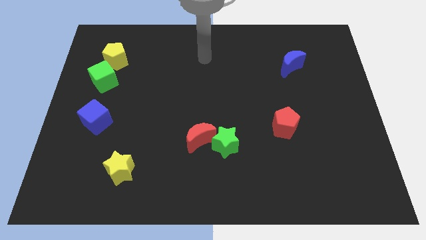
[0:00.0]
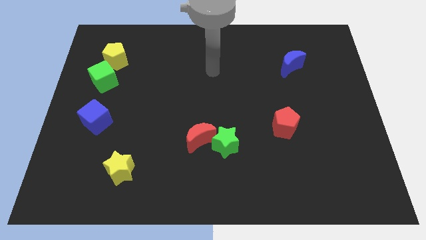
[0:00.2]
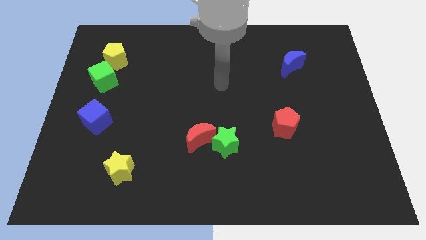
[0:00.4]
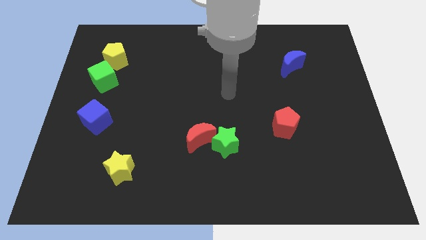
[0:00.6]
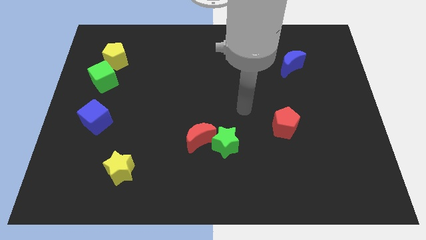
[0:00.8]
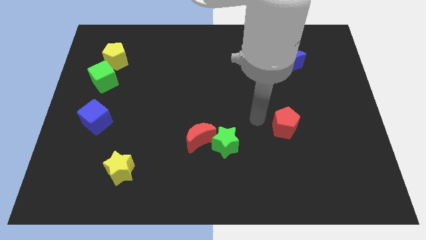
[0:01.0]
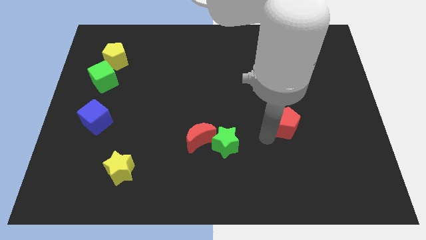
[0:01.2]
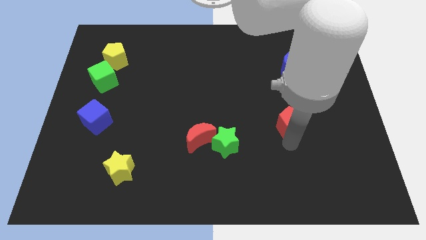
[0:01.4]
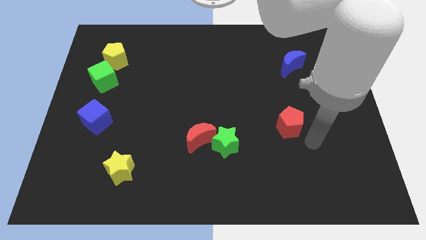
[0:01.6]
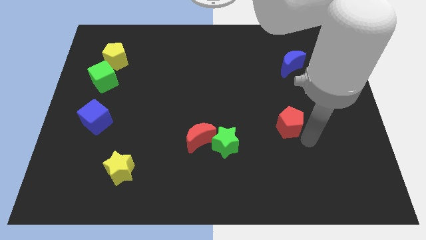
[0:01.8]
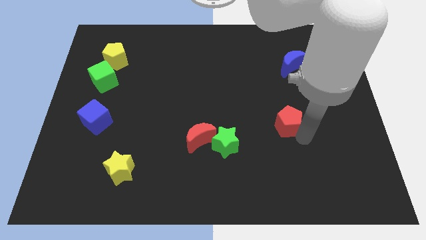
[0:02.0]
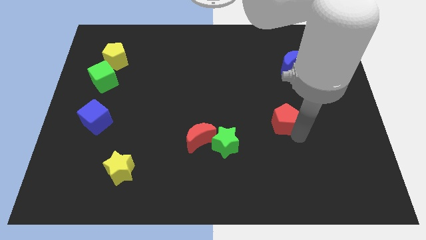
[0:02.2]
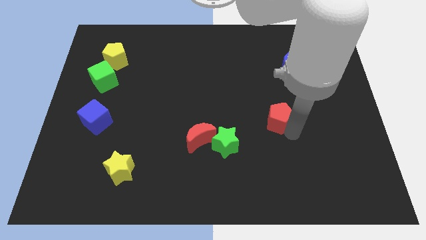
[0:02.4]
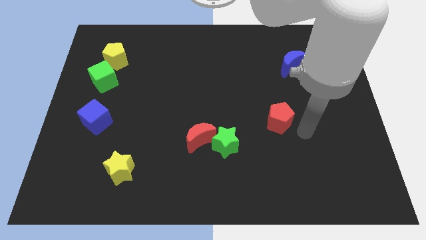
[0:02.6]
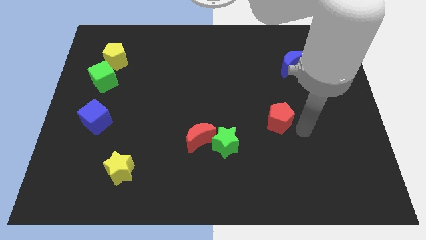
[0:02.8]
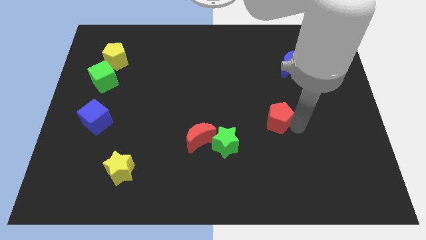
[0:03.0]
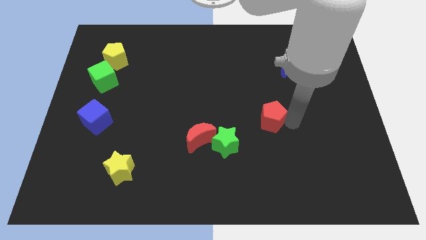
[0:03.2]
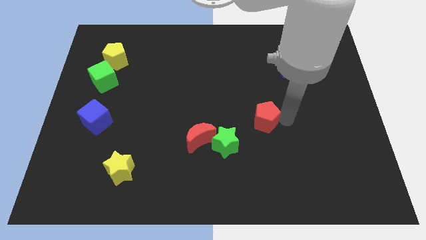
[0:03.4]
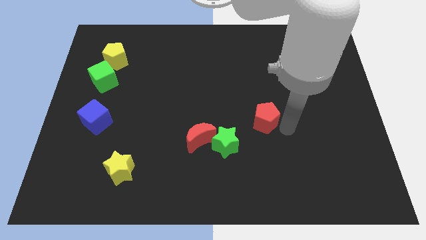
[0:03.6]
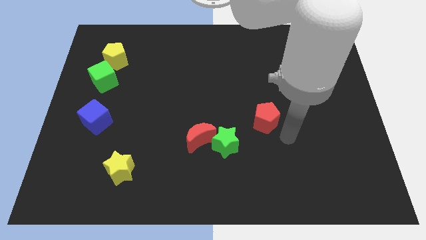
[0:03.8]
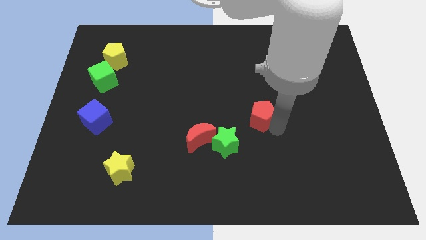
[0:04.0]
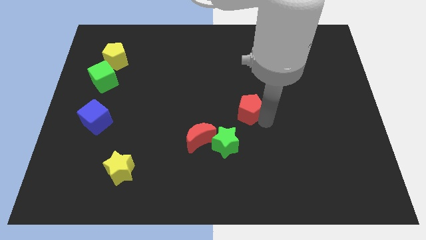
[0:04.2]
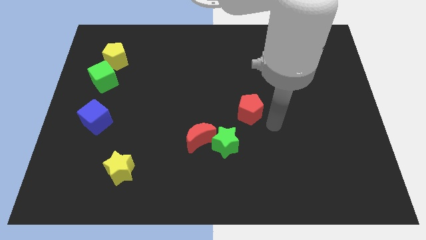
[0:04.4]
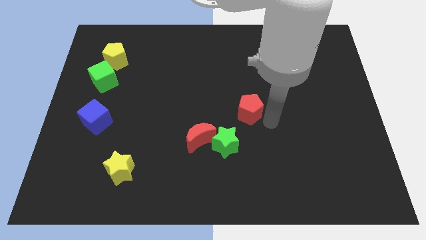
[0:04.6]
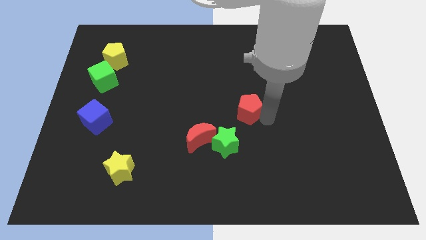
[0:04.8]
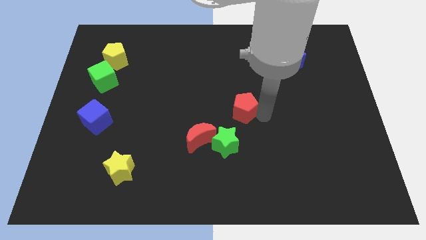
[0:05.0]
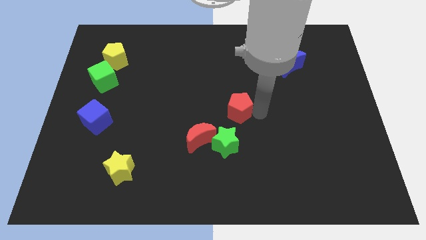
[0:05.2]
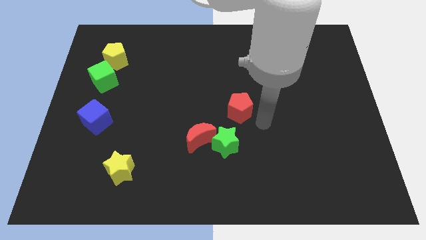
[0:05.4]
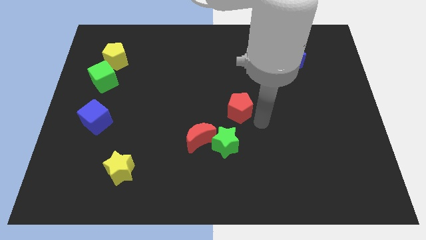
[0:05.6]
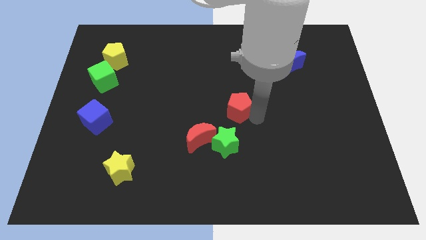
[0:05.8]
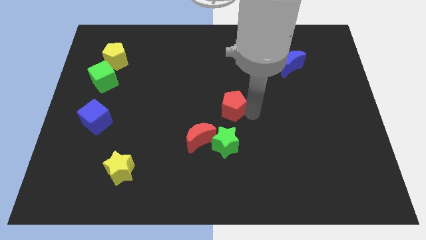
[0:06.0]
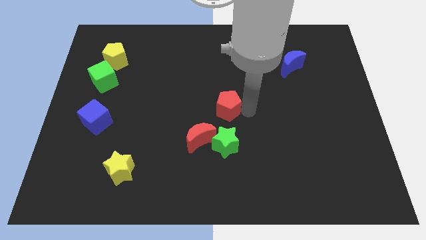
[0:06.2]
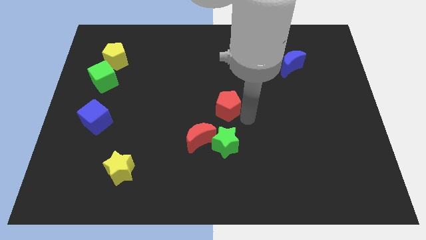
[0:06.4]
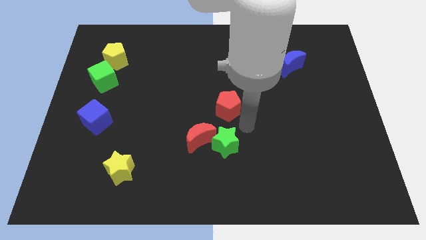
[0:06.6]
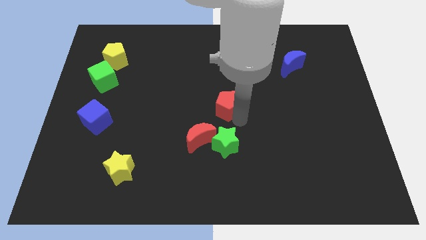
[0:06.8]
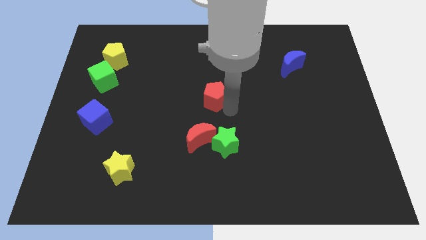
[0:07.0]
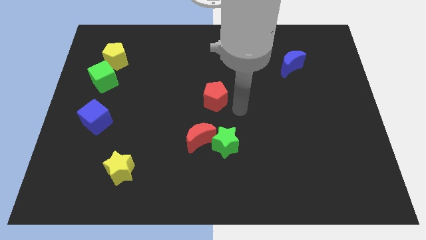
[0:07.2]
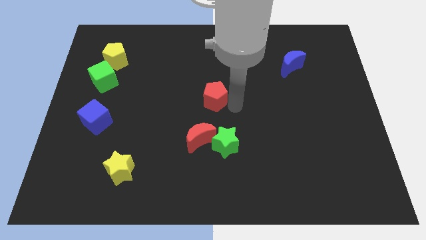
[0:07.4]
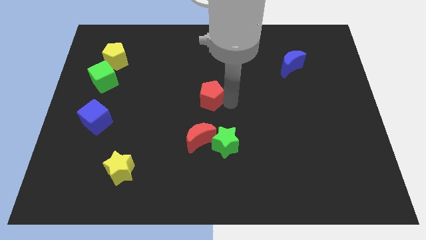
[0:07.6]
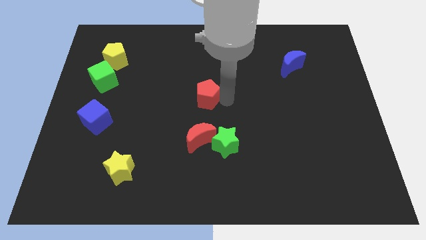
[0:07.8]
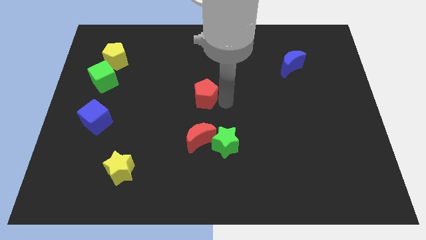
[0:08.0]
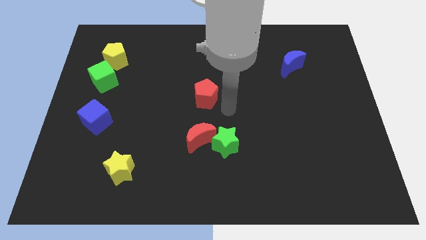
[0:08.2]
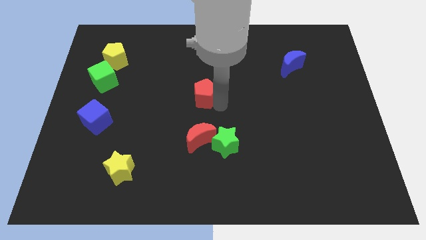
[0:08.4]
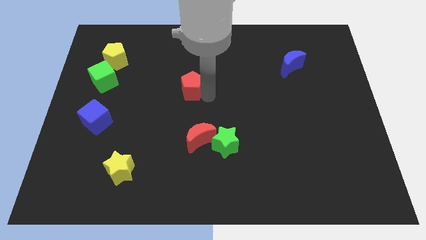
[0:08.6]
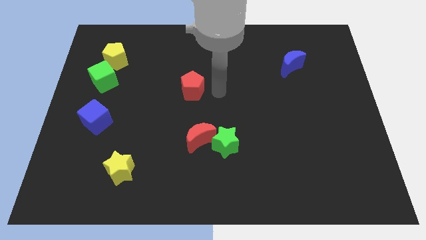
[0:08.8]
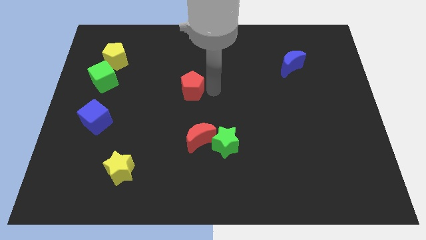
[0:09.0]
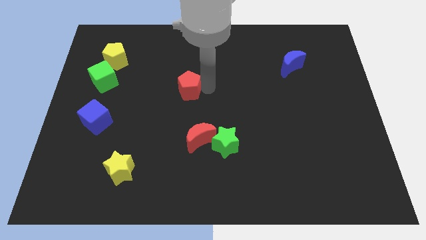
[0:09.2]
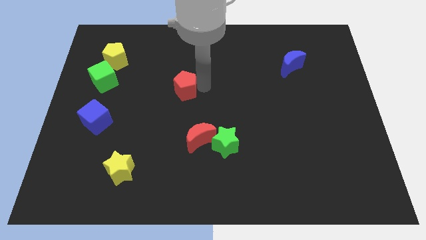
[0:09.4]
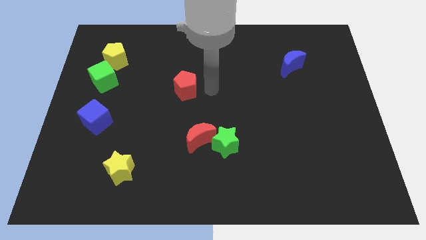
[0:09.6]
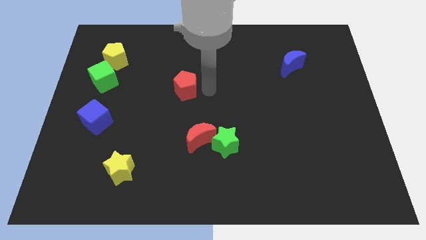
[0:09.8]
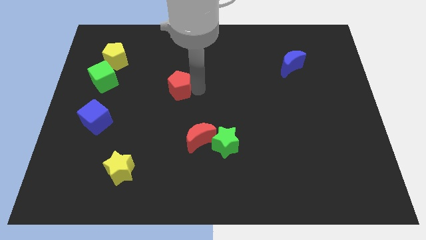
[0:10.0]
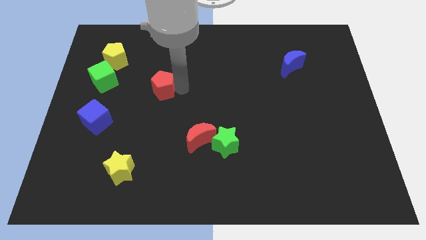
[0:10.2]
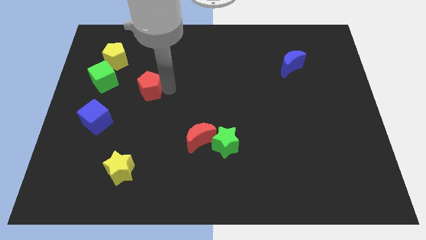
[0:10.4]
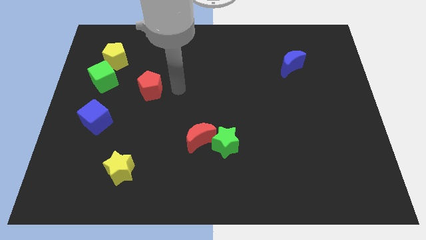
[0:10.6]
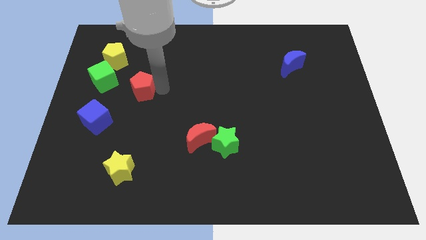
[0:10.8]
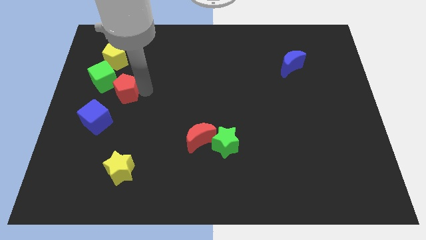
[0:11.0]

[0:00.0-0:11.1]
move the red pentagon to the bottom side of the yellow pentagon

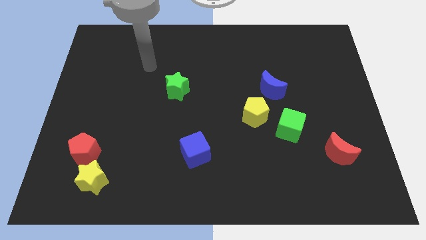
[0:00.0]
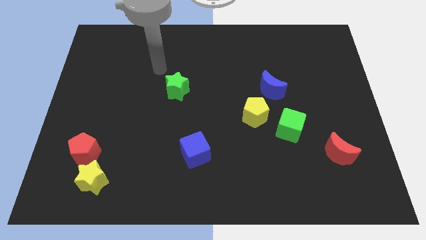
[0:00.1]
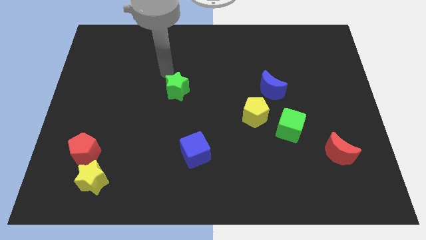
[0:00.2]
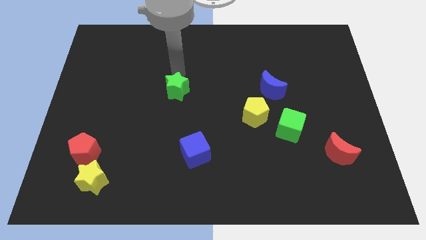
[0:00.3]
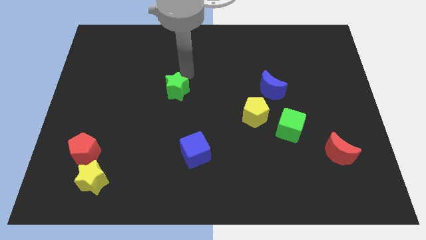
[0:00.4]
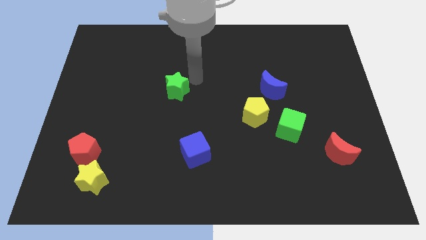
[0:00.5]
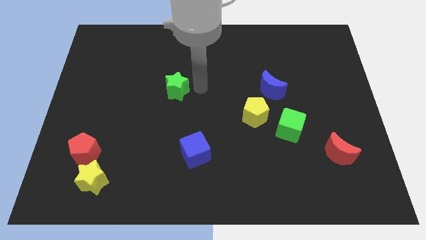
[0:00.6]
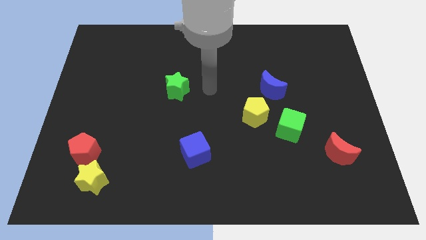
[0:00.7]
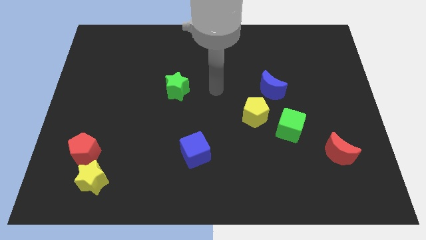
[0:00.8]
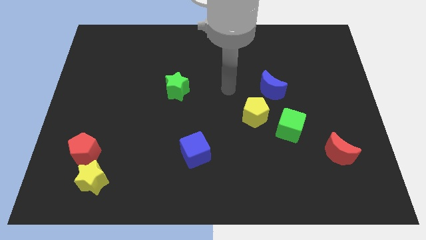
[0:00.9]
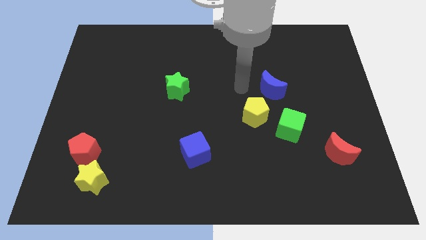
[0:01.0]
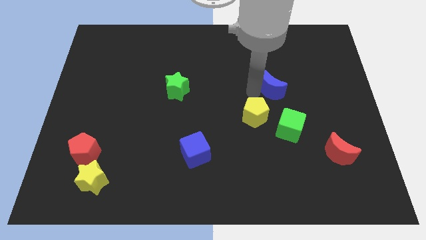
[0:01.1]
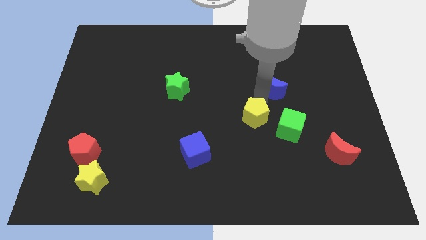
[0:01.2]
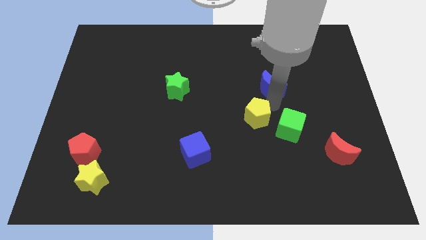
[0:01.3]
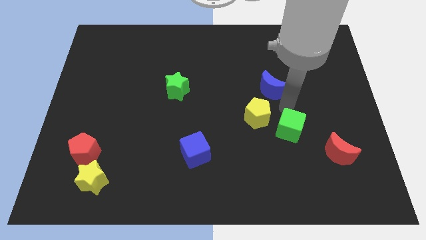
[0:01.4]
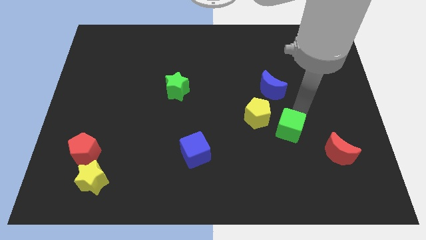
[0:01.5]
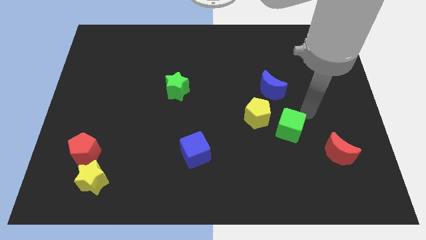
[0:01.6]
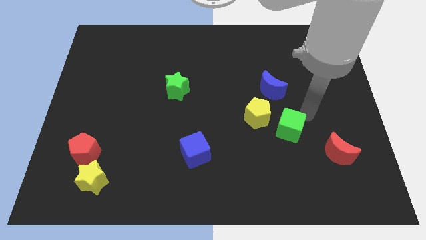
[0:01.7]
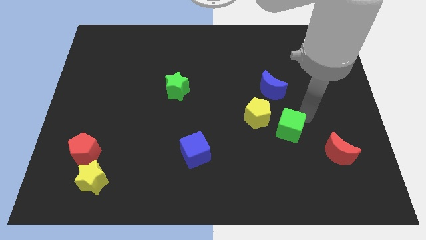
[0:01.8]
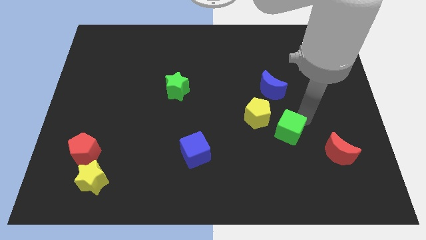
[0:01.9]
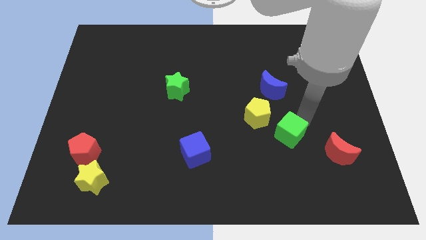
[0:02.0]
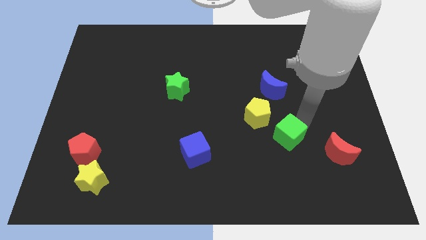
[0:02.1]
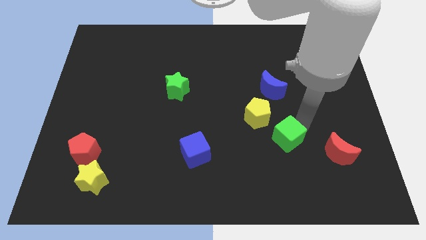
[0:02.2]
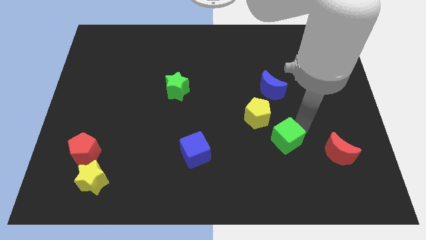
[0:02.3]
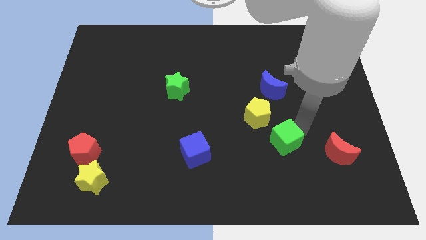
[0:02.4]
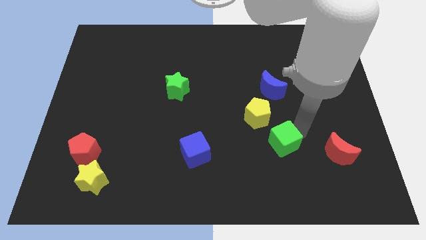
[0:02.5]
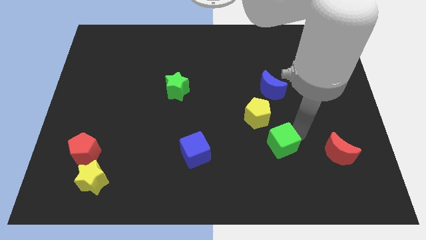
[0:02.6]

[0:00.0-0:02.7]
put the green cube below the yellow pentagon
